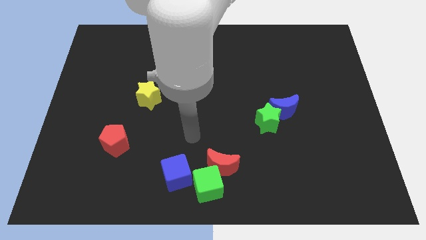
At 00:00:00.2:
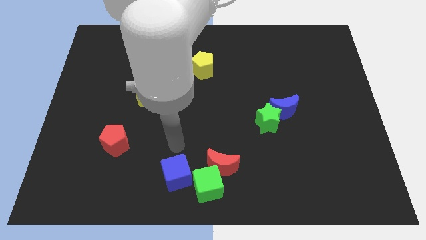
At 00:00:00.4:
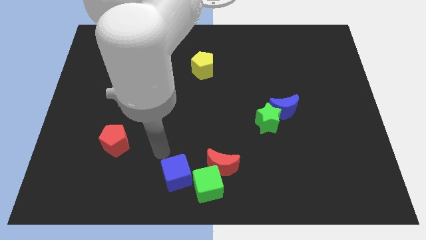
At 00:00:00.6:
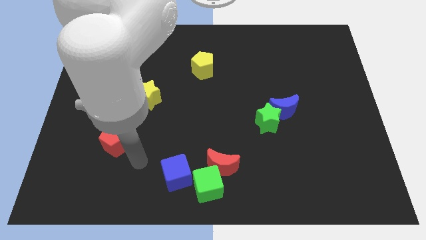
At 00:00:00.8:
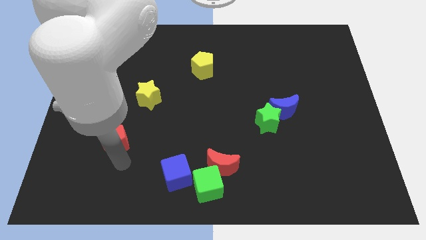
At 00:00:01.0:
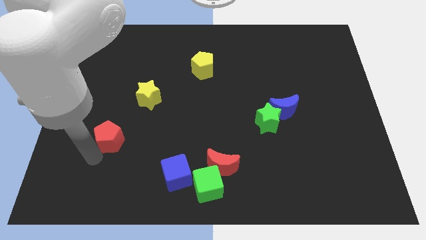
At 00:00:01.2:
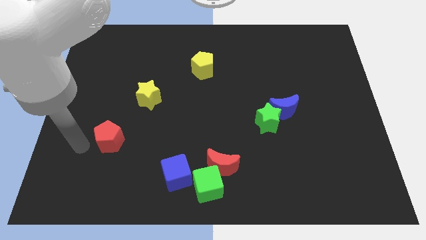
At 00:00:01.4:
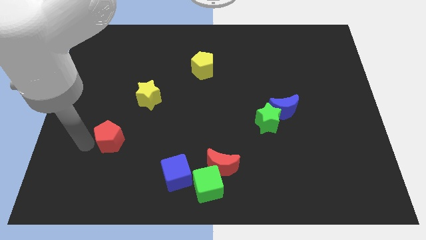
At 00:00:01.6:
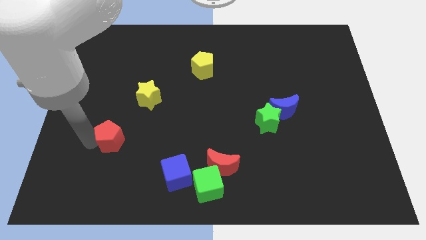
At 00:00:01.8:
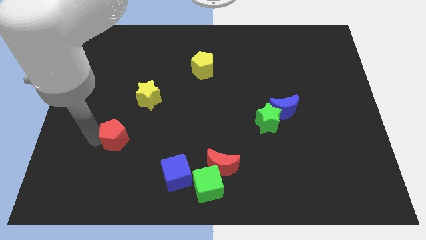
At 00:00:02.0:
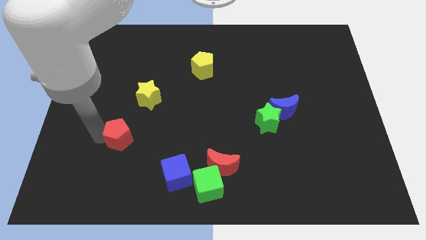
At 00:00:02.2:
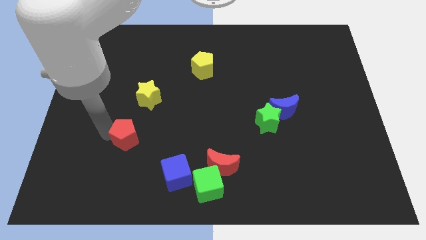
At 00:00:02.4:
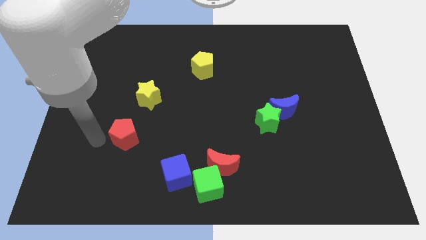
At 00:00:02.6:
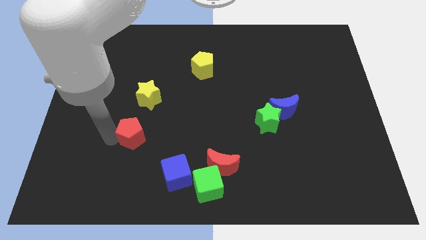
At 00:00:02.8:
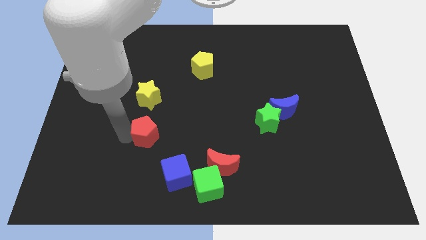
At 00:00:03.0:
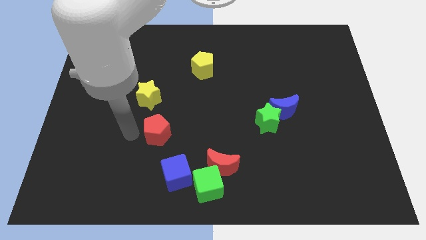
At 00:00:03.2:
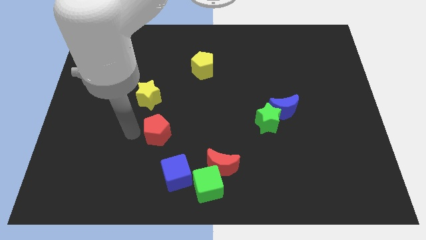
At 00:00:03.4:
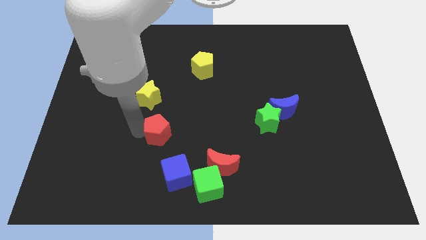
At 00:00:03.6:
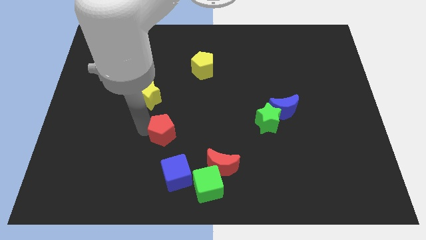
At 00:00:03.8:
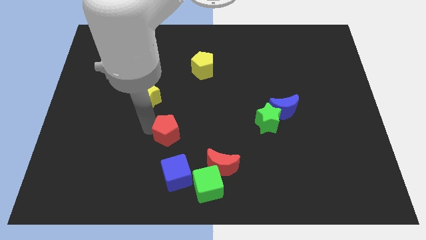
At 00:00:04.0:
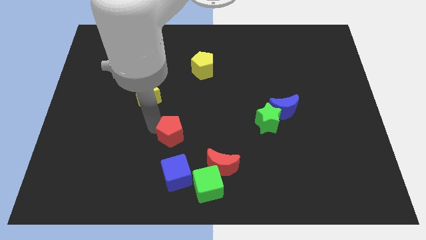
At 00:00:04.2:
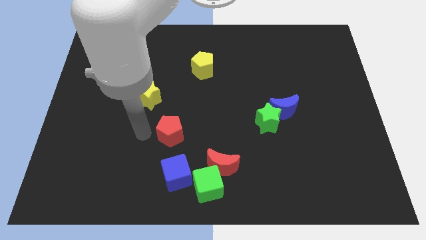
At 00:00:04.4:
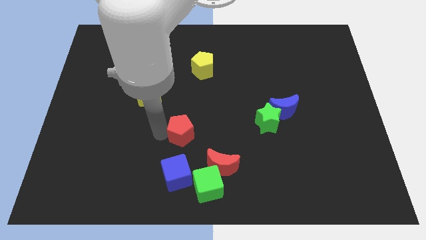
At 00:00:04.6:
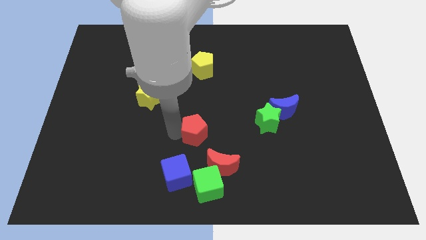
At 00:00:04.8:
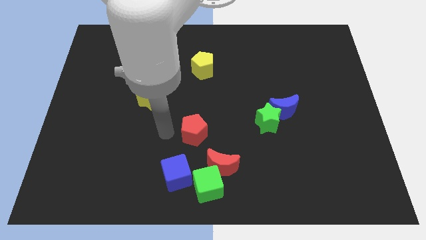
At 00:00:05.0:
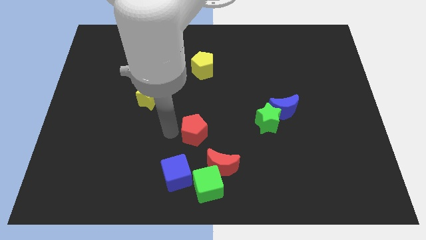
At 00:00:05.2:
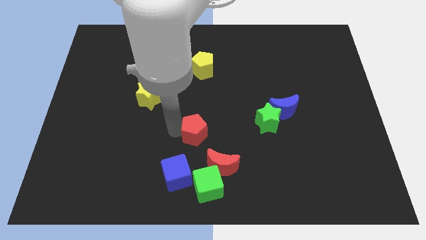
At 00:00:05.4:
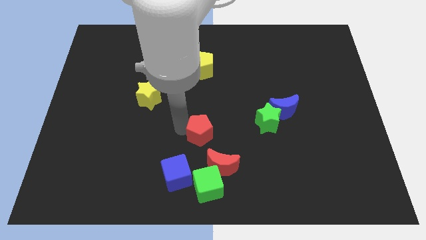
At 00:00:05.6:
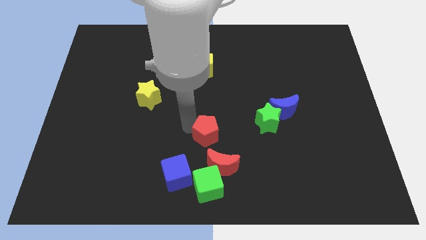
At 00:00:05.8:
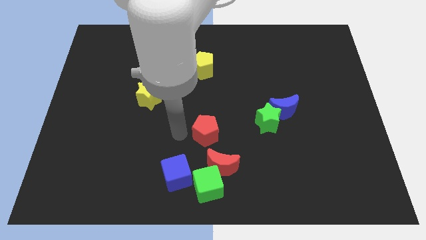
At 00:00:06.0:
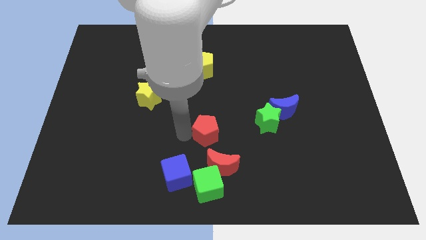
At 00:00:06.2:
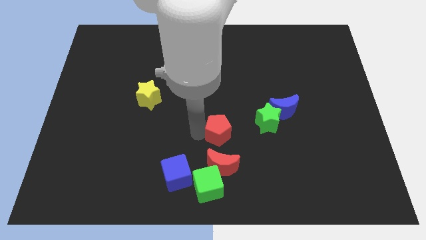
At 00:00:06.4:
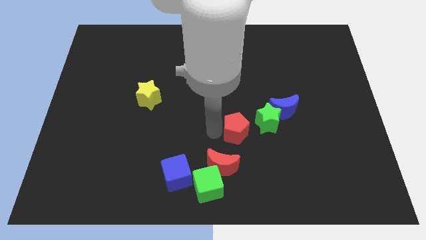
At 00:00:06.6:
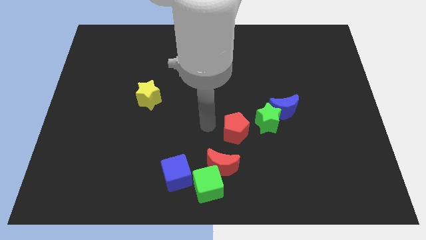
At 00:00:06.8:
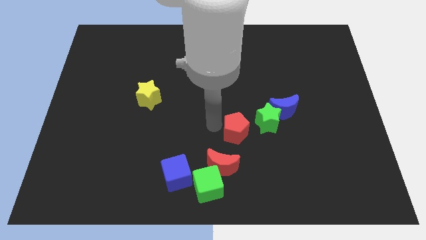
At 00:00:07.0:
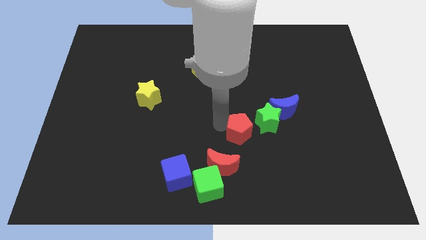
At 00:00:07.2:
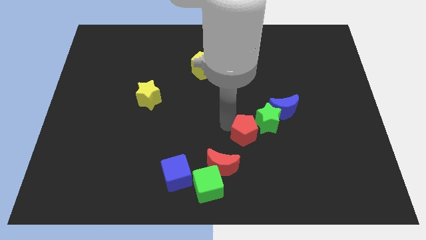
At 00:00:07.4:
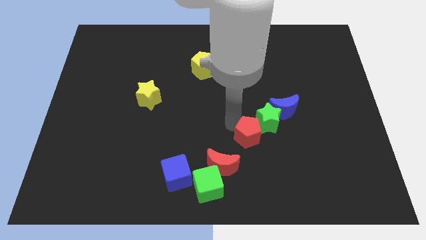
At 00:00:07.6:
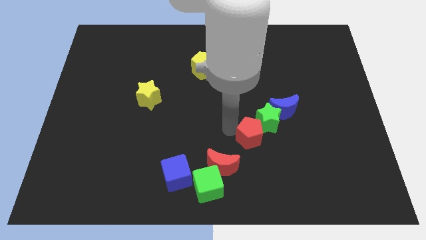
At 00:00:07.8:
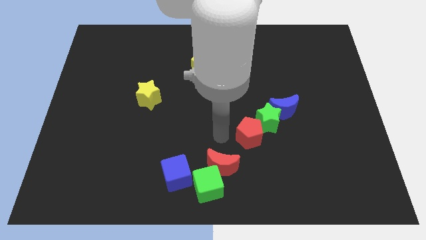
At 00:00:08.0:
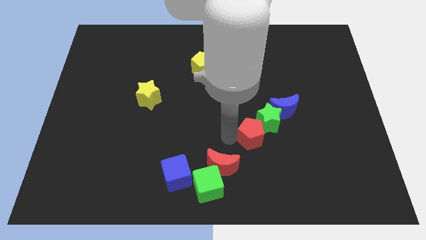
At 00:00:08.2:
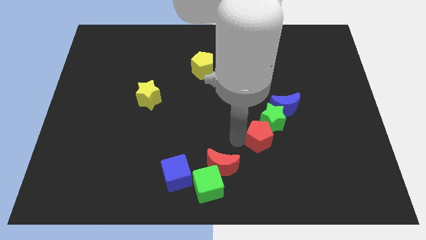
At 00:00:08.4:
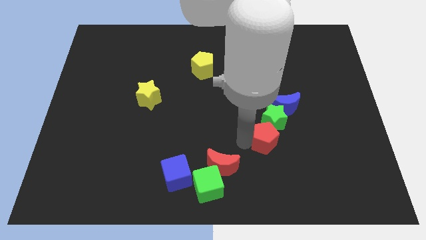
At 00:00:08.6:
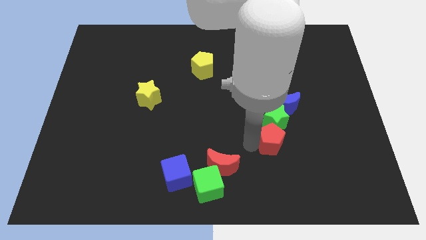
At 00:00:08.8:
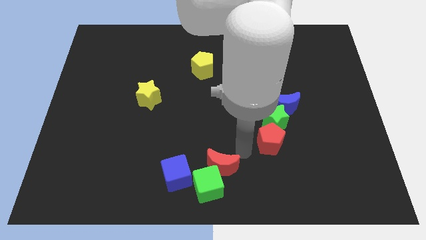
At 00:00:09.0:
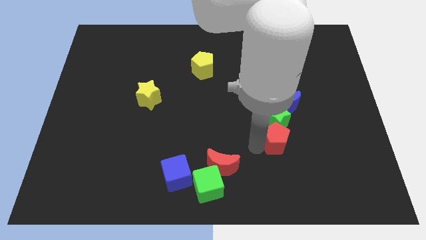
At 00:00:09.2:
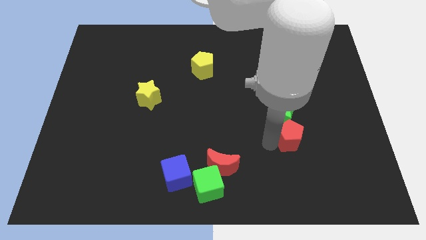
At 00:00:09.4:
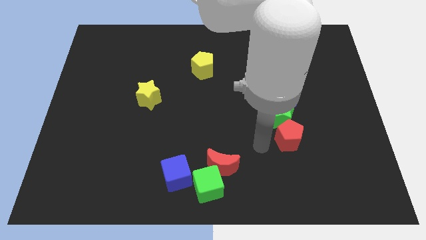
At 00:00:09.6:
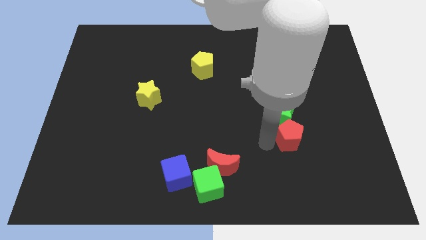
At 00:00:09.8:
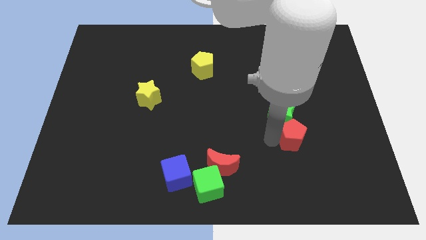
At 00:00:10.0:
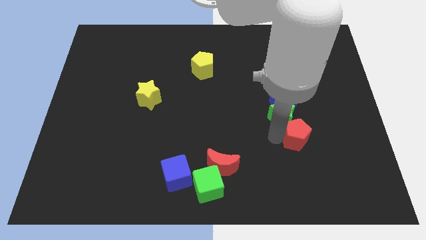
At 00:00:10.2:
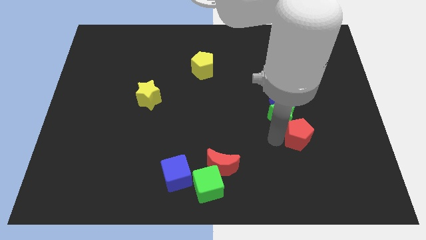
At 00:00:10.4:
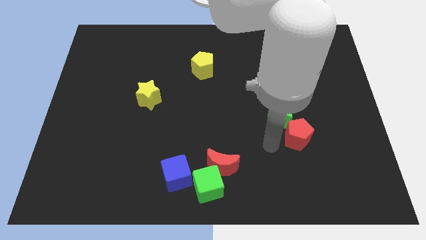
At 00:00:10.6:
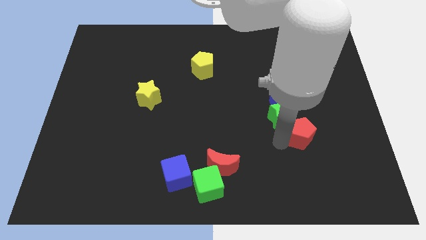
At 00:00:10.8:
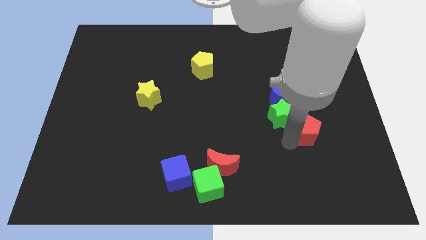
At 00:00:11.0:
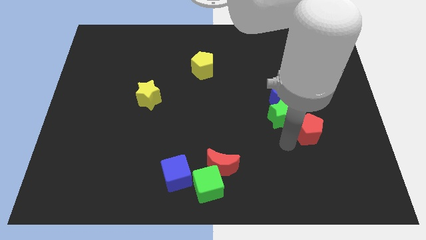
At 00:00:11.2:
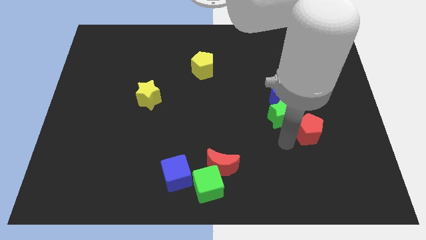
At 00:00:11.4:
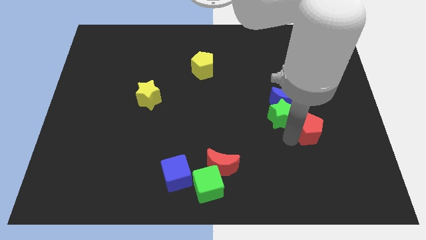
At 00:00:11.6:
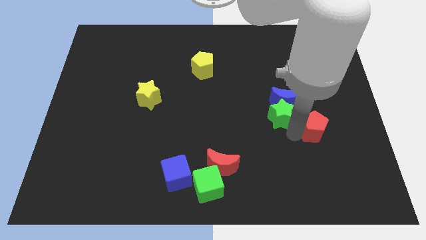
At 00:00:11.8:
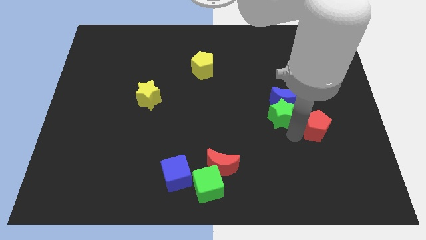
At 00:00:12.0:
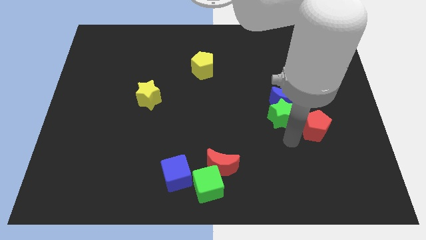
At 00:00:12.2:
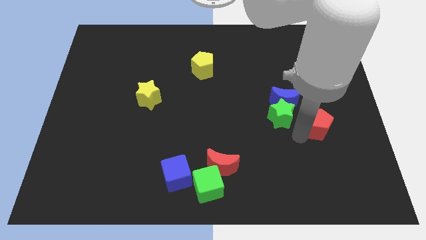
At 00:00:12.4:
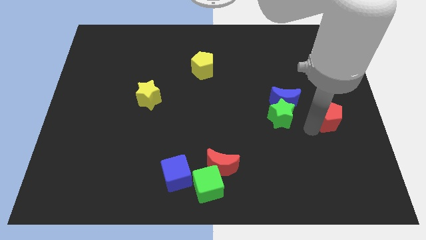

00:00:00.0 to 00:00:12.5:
move the red pentagon to the center right

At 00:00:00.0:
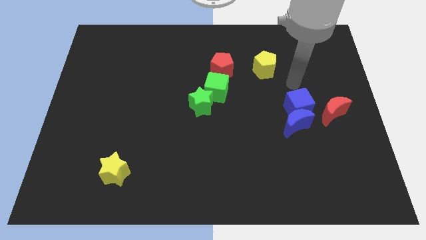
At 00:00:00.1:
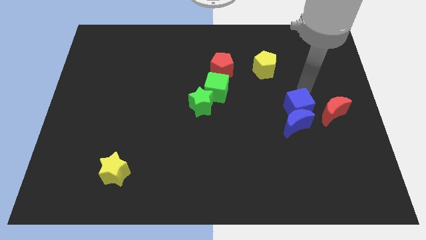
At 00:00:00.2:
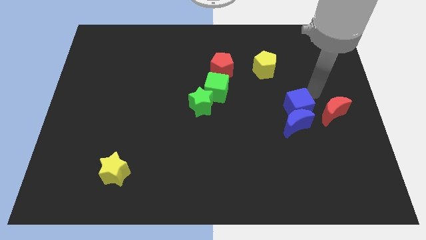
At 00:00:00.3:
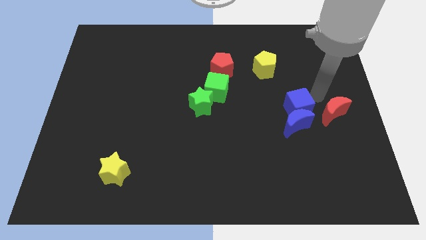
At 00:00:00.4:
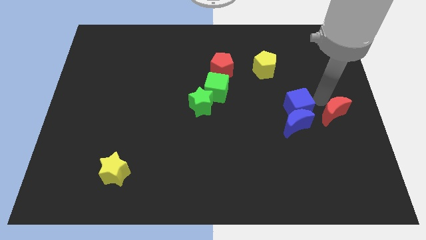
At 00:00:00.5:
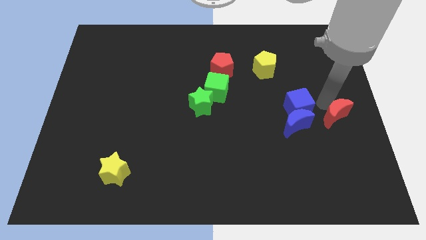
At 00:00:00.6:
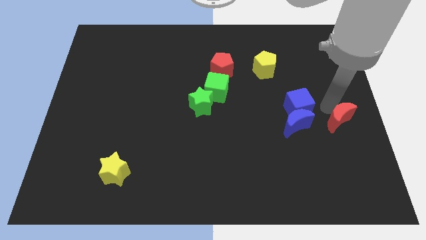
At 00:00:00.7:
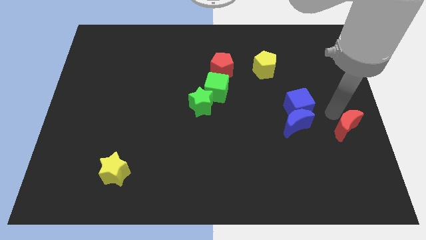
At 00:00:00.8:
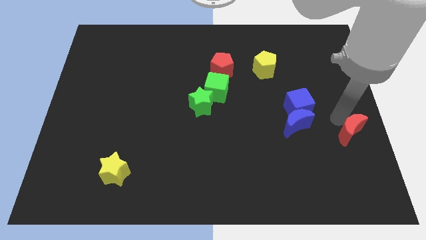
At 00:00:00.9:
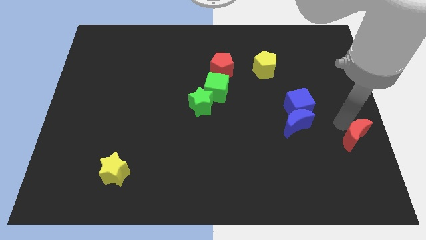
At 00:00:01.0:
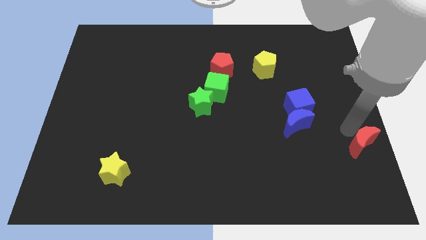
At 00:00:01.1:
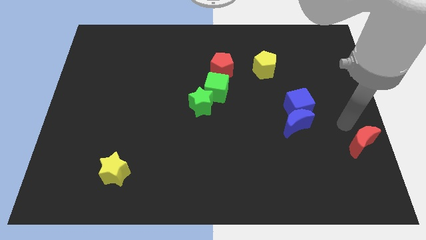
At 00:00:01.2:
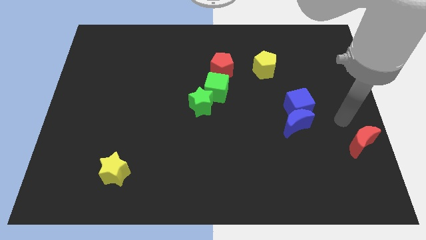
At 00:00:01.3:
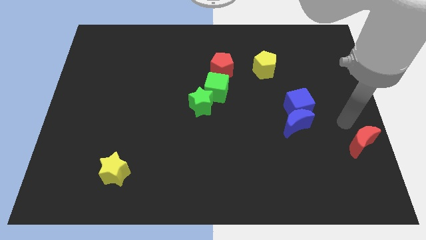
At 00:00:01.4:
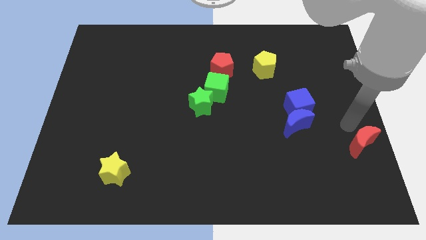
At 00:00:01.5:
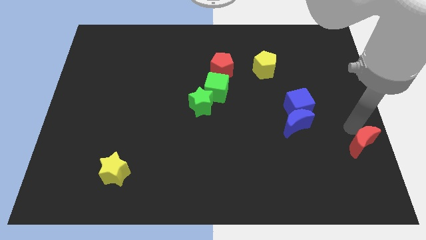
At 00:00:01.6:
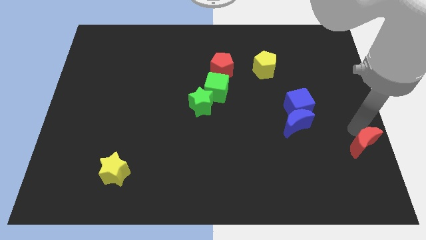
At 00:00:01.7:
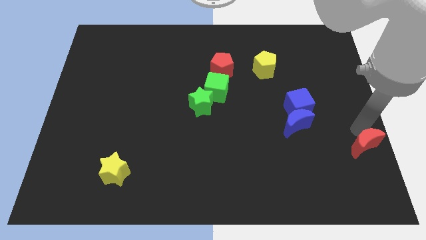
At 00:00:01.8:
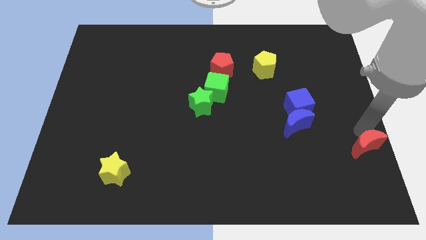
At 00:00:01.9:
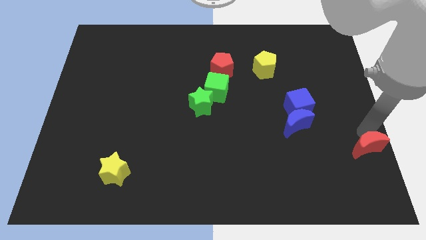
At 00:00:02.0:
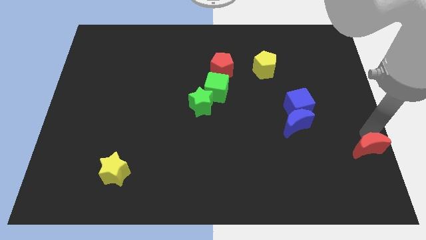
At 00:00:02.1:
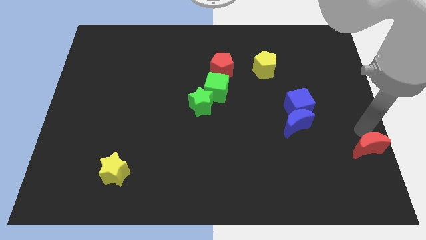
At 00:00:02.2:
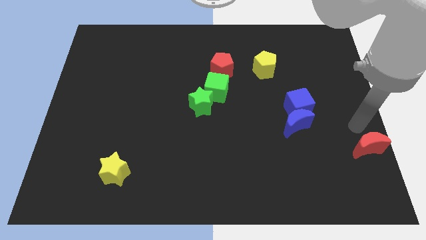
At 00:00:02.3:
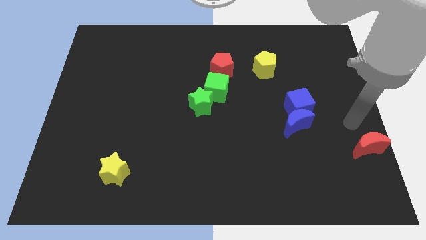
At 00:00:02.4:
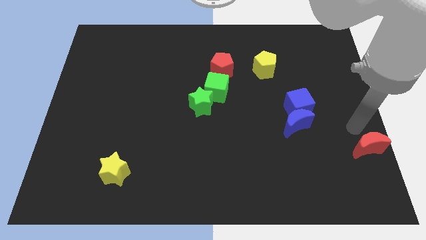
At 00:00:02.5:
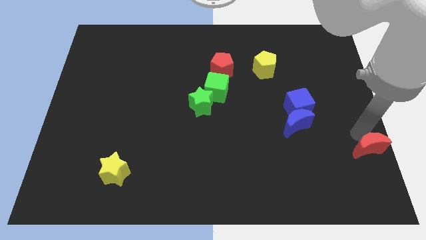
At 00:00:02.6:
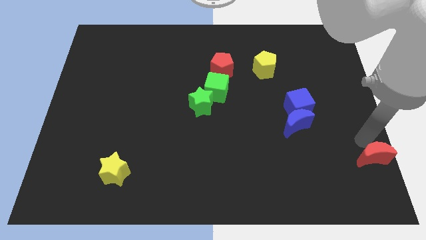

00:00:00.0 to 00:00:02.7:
push the red moon to the bottom right
